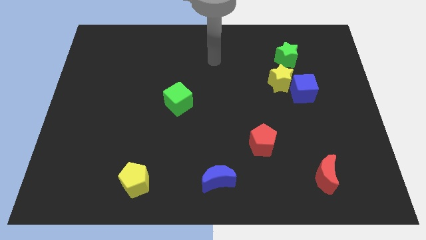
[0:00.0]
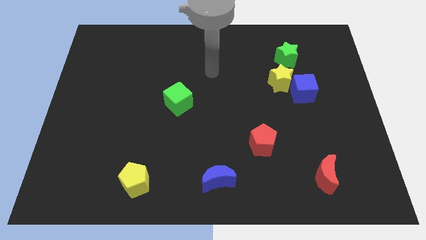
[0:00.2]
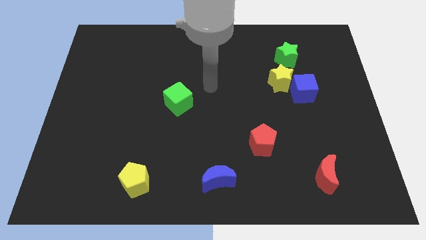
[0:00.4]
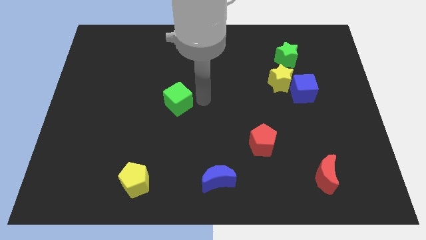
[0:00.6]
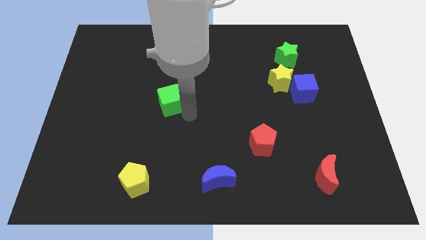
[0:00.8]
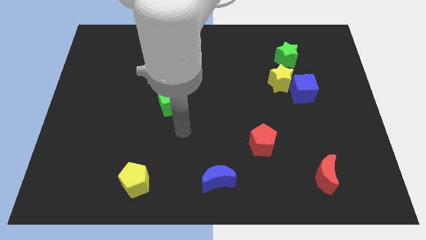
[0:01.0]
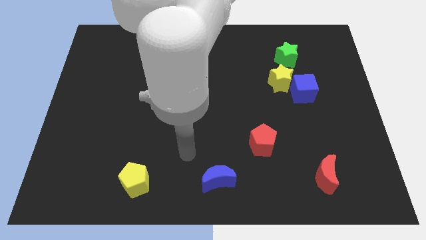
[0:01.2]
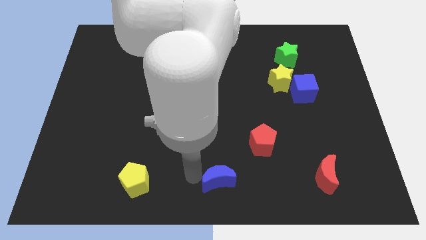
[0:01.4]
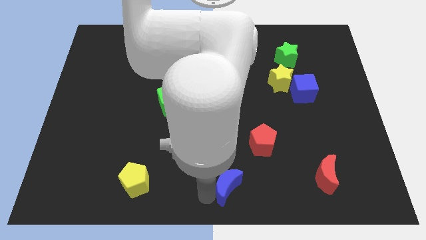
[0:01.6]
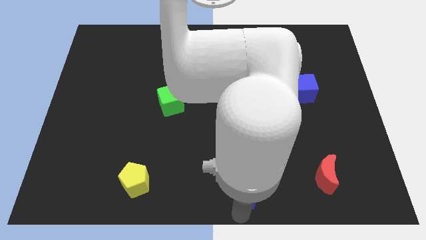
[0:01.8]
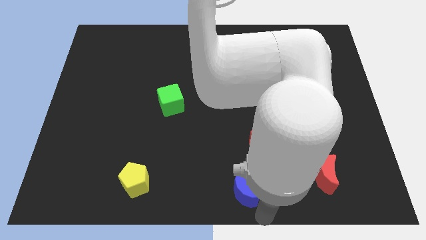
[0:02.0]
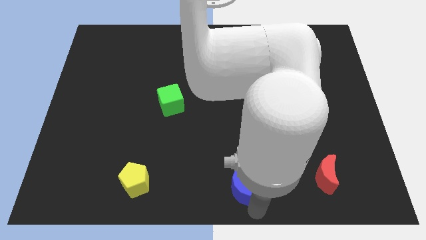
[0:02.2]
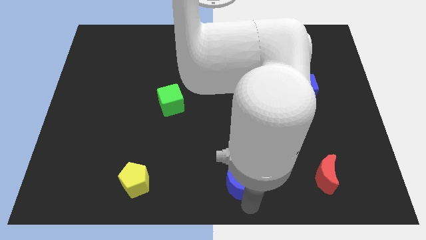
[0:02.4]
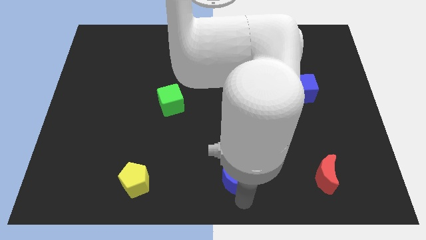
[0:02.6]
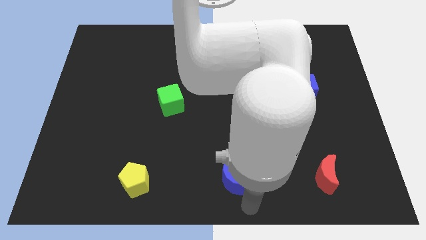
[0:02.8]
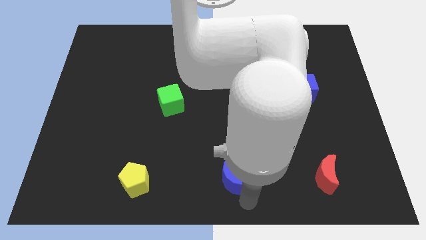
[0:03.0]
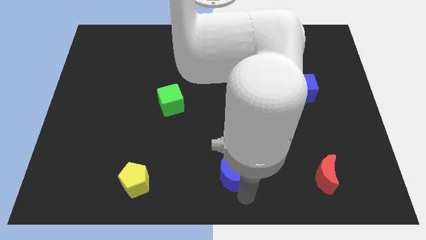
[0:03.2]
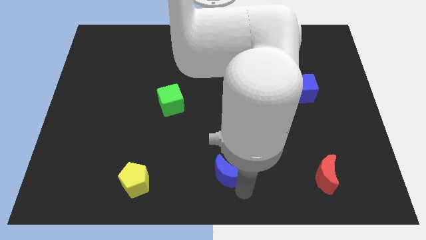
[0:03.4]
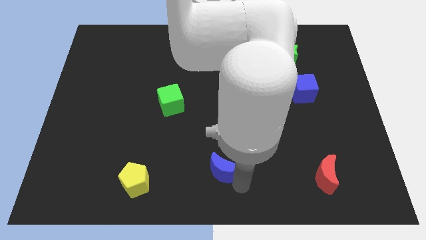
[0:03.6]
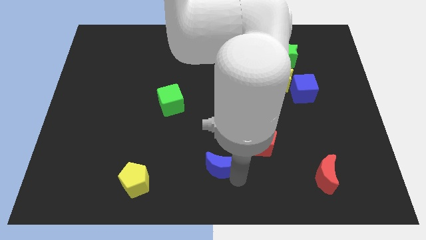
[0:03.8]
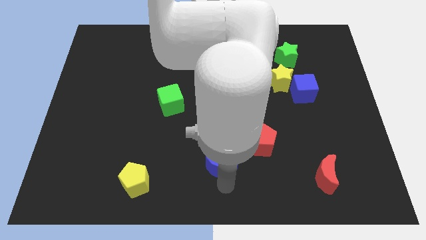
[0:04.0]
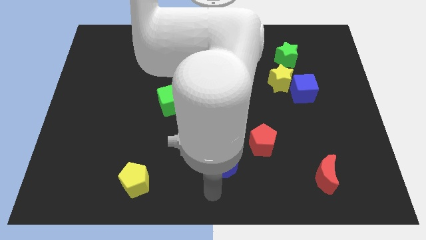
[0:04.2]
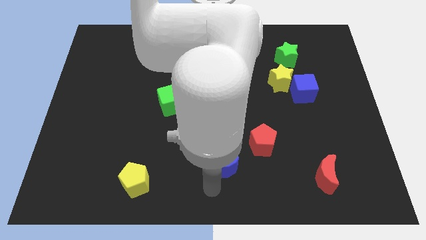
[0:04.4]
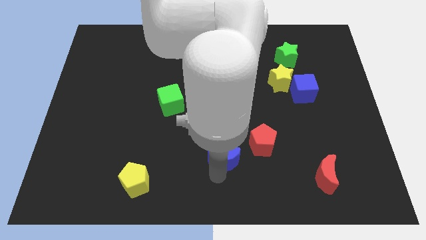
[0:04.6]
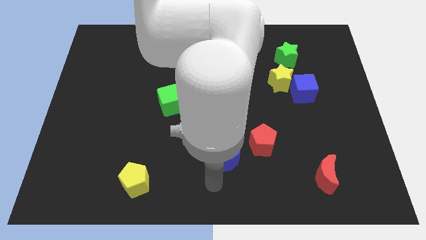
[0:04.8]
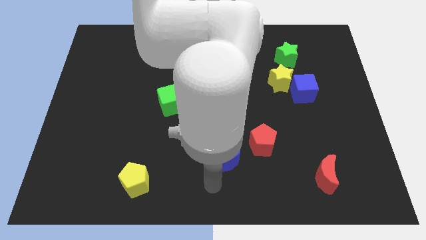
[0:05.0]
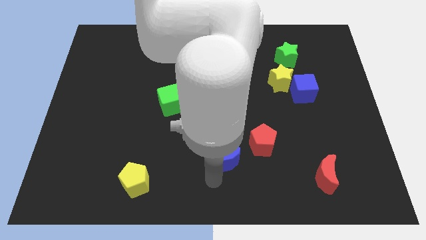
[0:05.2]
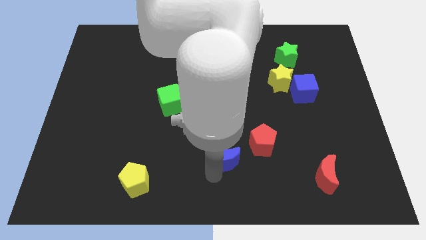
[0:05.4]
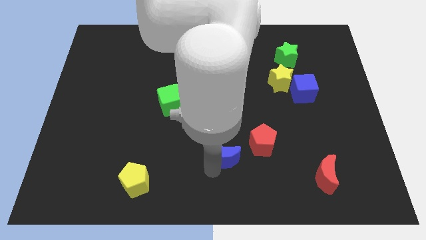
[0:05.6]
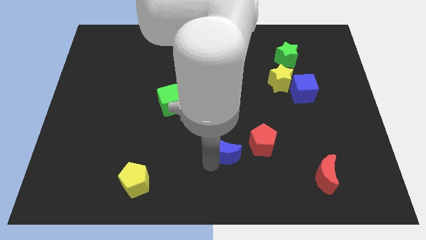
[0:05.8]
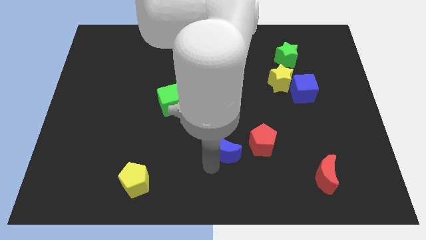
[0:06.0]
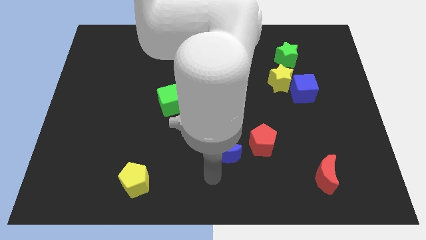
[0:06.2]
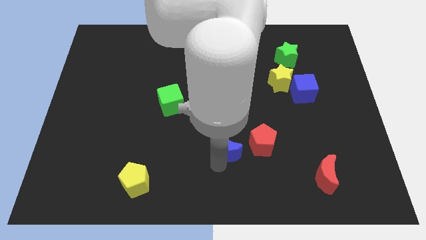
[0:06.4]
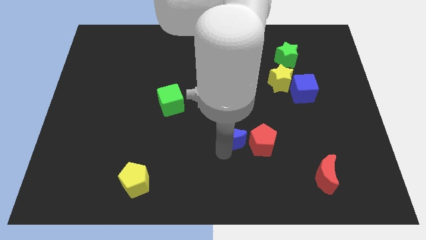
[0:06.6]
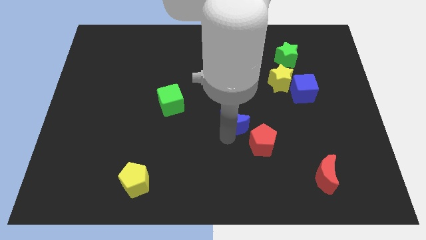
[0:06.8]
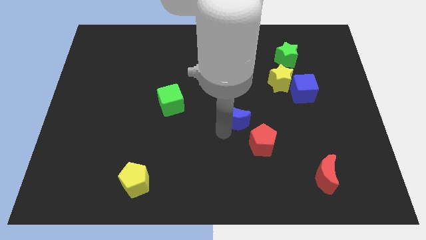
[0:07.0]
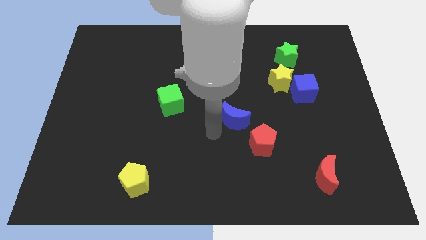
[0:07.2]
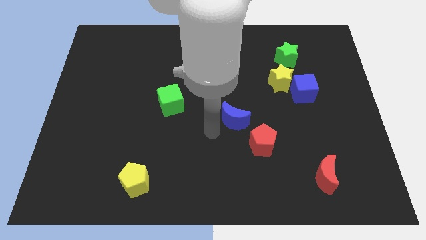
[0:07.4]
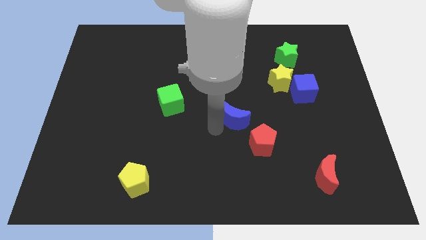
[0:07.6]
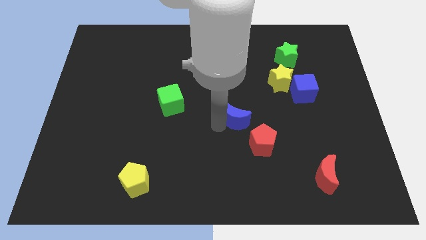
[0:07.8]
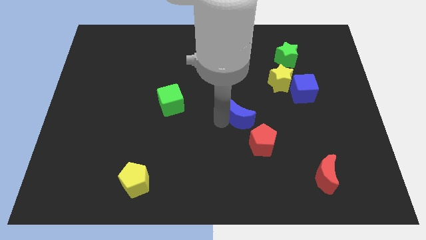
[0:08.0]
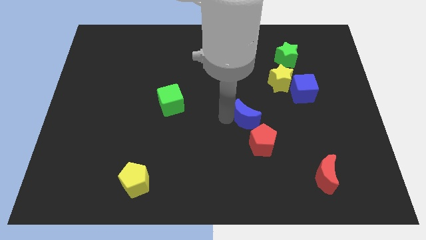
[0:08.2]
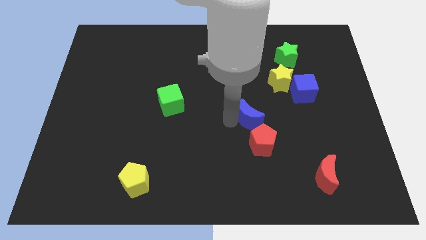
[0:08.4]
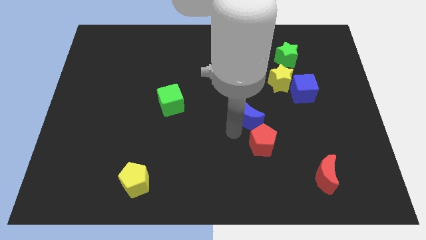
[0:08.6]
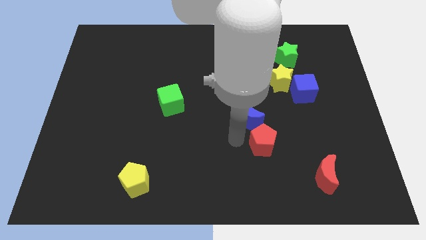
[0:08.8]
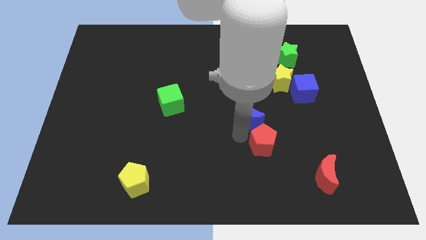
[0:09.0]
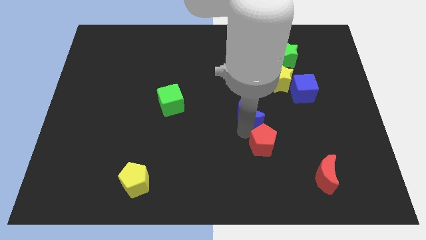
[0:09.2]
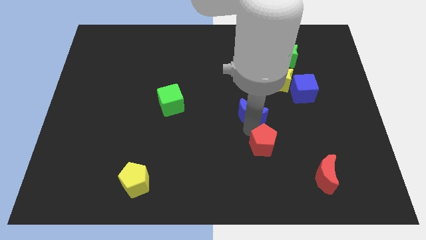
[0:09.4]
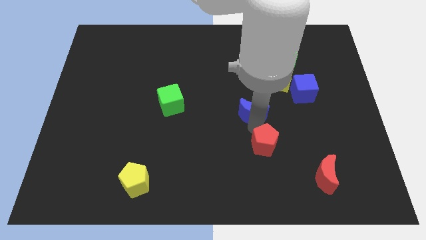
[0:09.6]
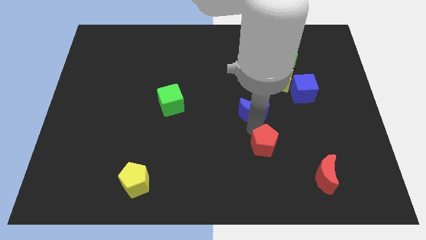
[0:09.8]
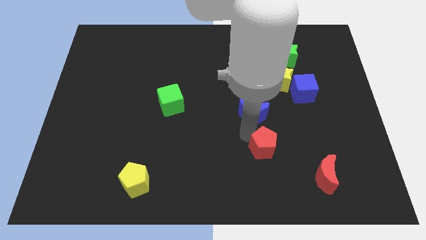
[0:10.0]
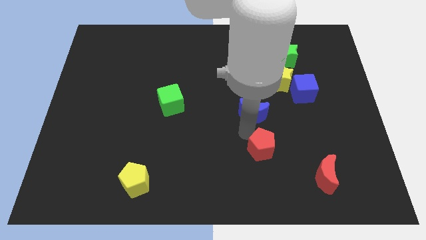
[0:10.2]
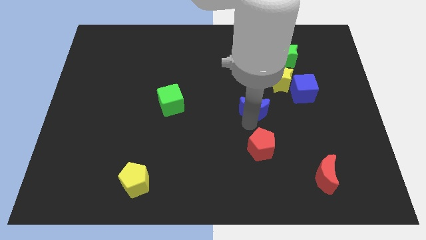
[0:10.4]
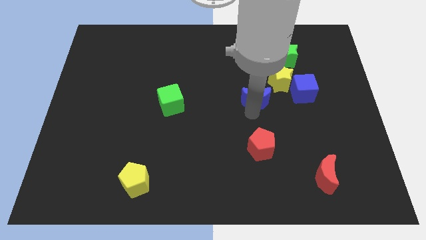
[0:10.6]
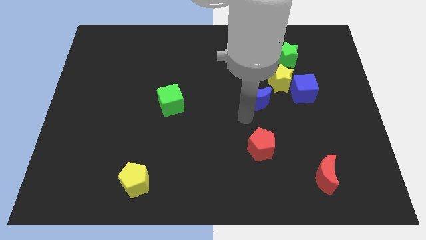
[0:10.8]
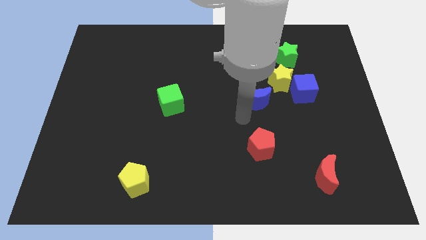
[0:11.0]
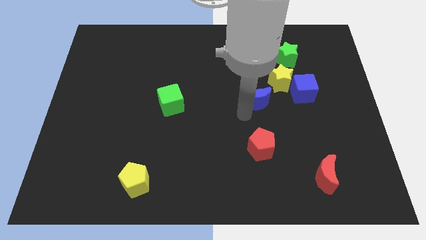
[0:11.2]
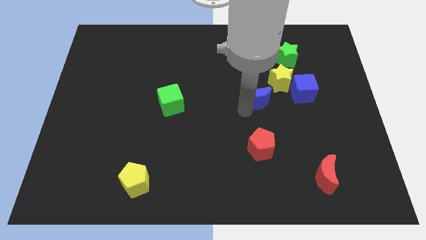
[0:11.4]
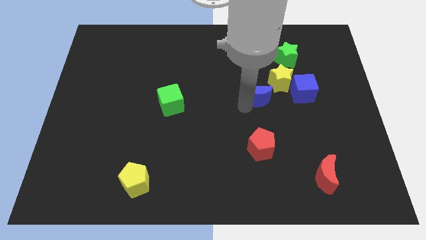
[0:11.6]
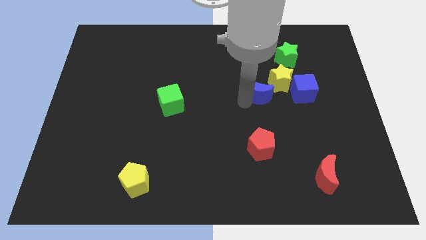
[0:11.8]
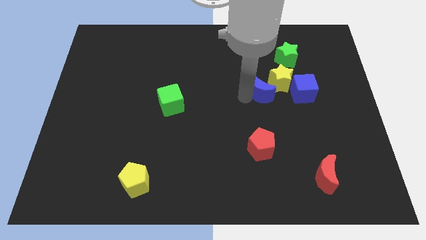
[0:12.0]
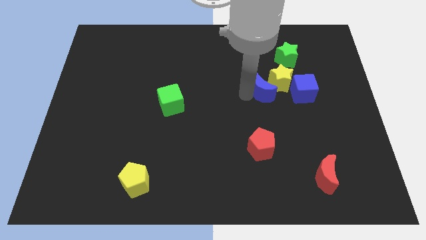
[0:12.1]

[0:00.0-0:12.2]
put the blue moon close to the yellow star
